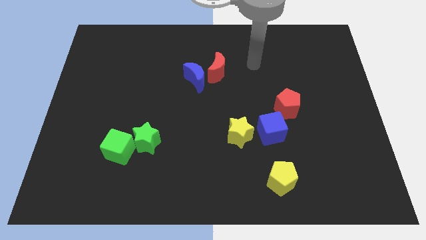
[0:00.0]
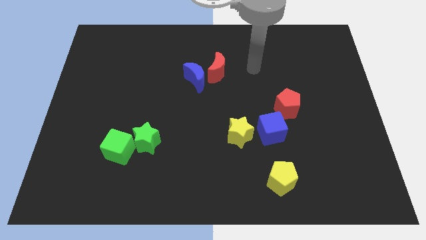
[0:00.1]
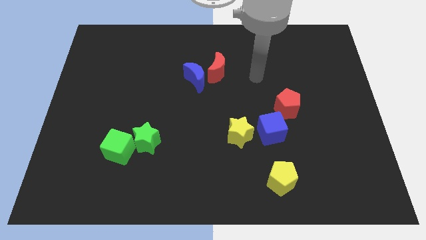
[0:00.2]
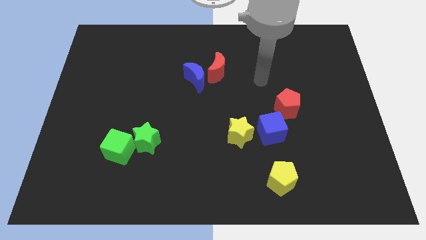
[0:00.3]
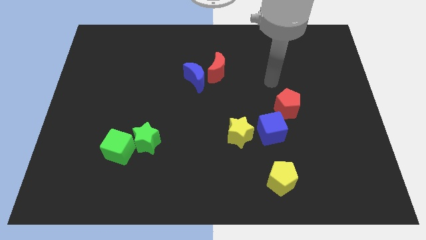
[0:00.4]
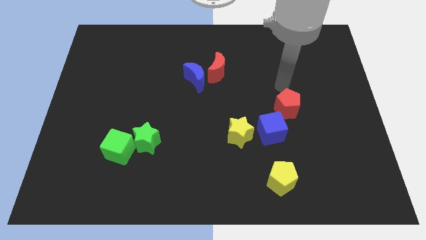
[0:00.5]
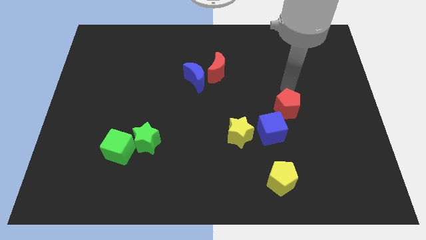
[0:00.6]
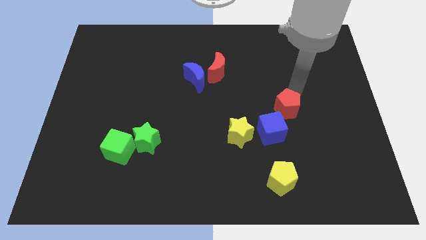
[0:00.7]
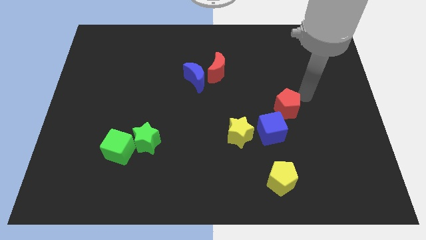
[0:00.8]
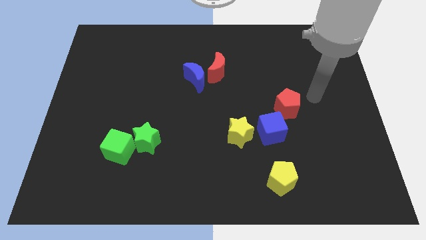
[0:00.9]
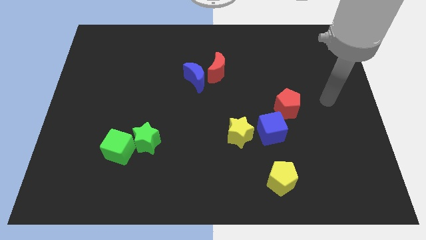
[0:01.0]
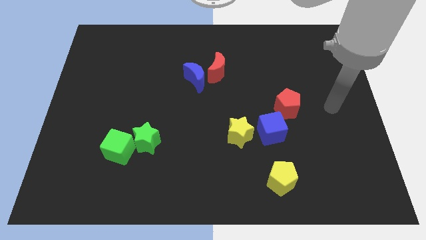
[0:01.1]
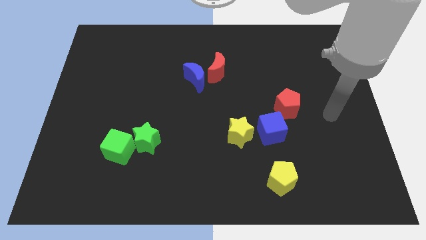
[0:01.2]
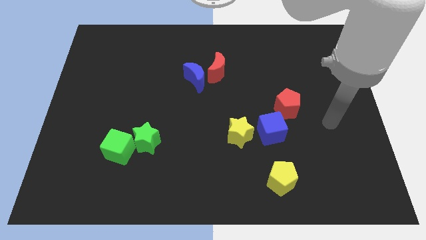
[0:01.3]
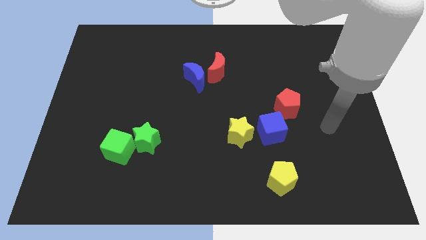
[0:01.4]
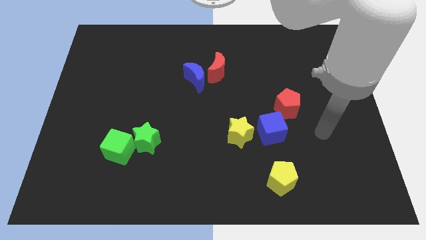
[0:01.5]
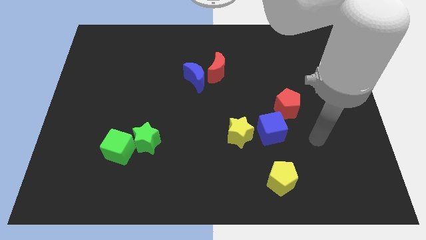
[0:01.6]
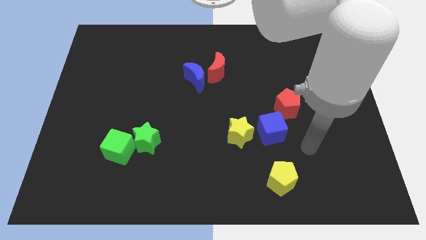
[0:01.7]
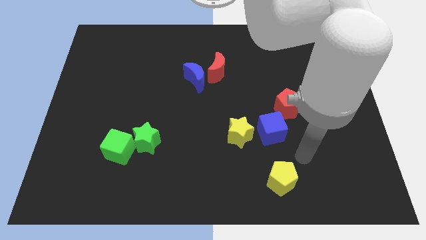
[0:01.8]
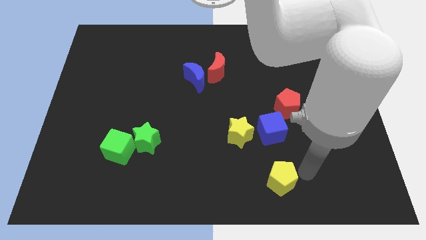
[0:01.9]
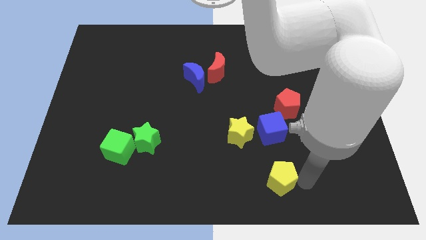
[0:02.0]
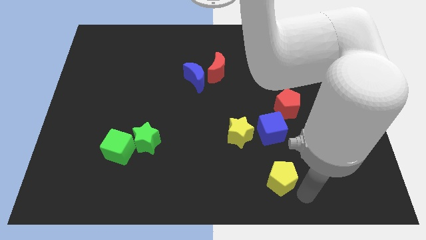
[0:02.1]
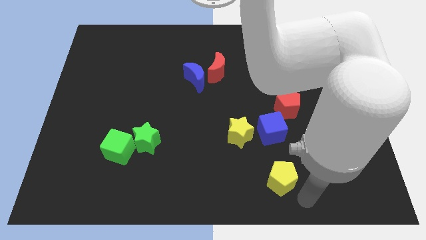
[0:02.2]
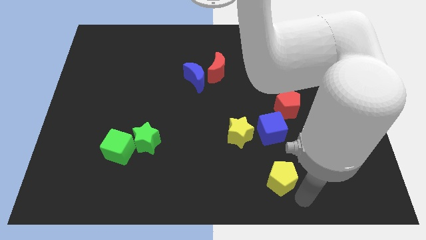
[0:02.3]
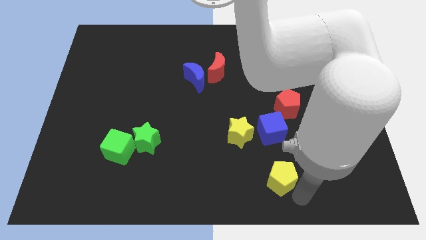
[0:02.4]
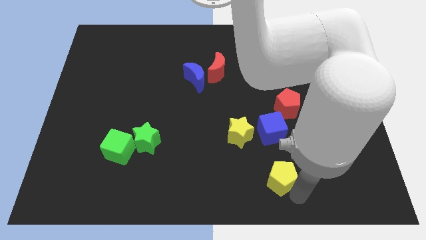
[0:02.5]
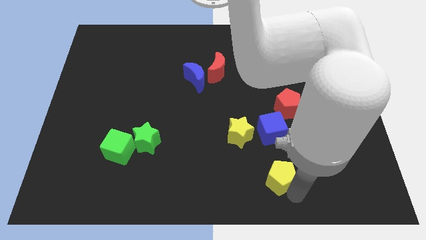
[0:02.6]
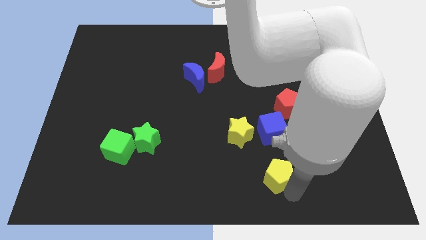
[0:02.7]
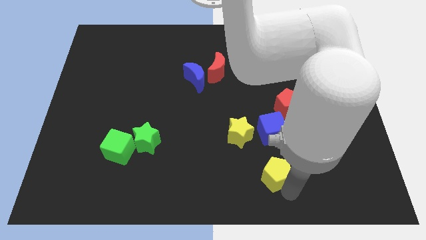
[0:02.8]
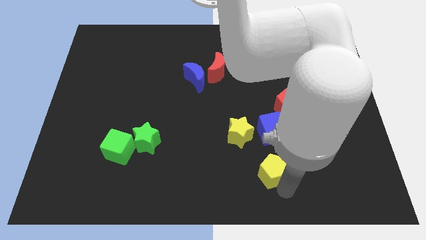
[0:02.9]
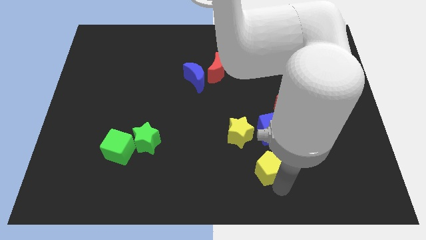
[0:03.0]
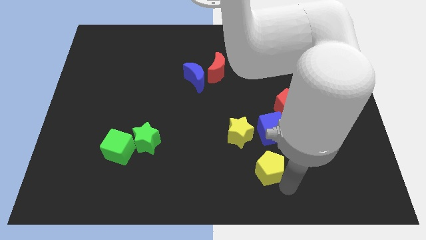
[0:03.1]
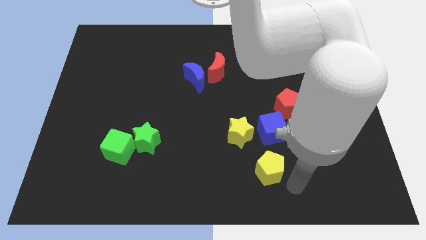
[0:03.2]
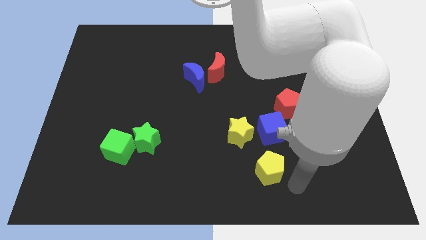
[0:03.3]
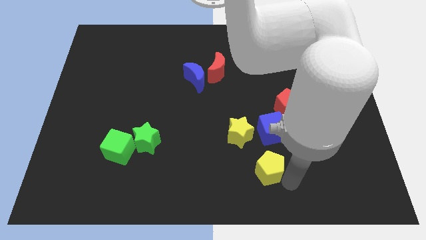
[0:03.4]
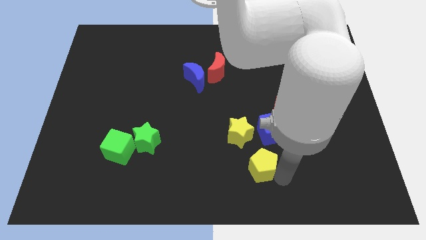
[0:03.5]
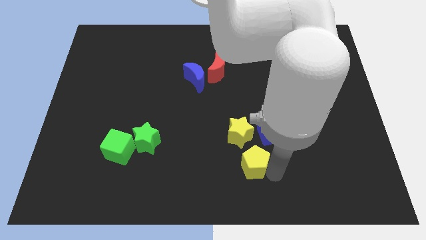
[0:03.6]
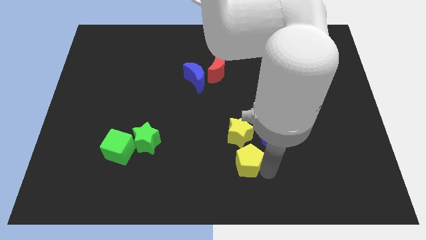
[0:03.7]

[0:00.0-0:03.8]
push the yellow pentagon up and then left somewhat

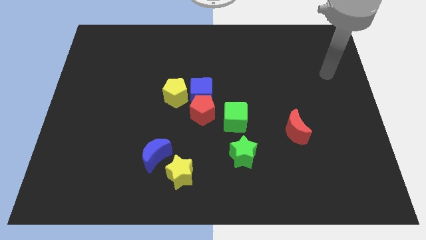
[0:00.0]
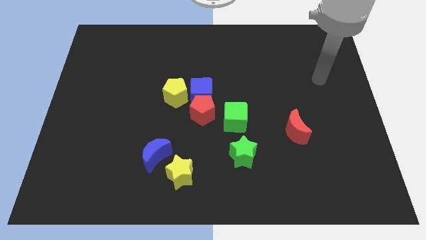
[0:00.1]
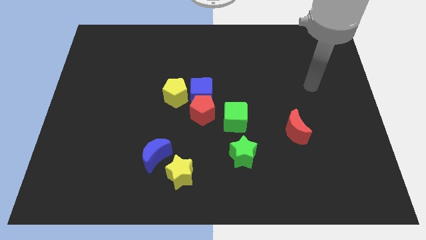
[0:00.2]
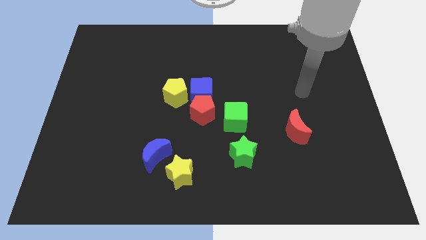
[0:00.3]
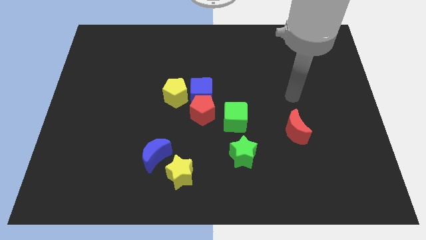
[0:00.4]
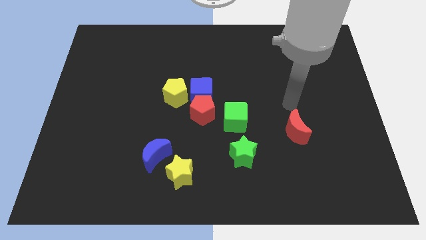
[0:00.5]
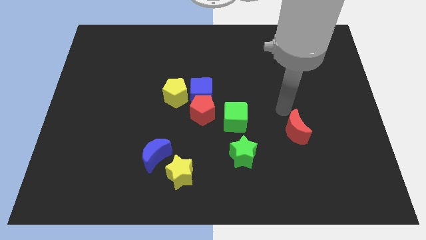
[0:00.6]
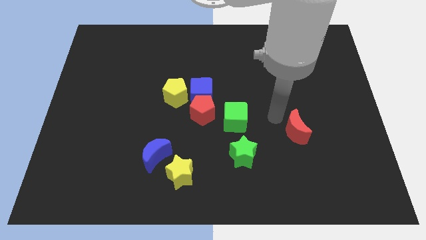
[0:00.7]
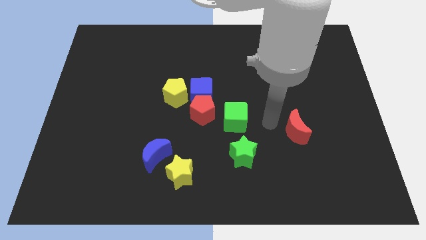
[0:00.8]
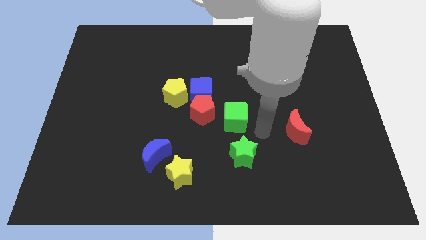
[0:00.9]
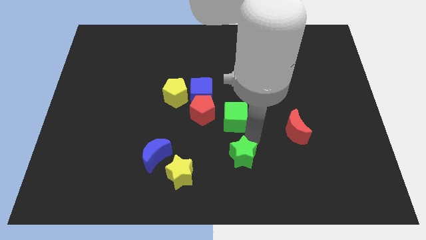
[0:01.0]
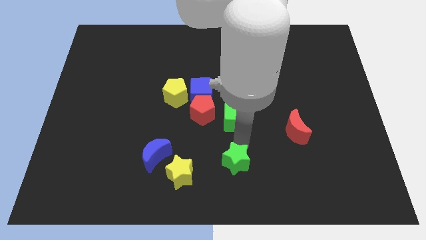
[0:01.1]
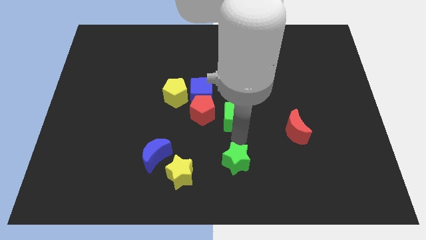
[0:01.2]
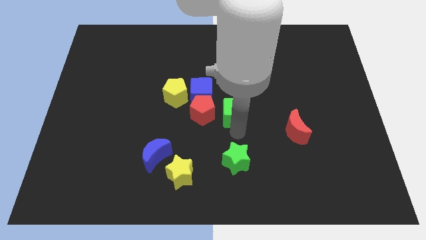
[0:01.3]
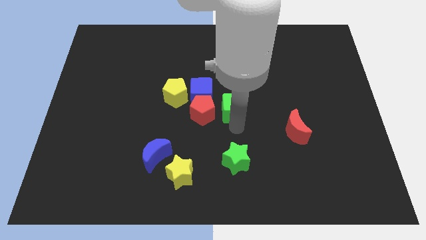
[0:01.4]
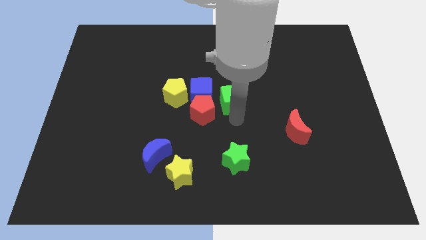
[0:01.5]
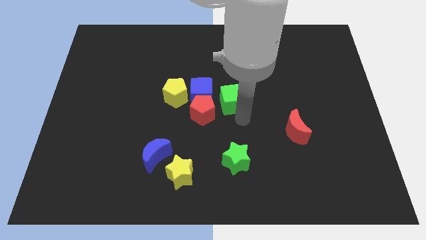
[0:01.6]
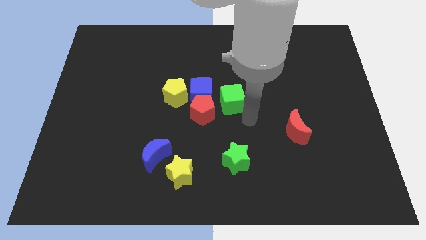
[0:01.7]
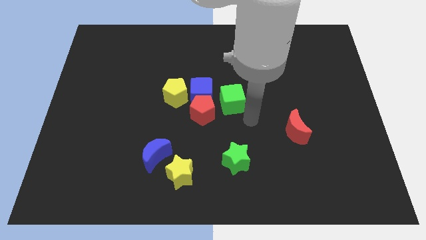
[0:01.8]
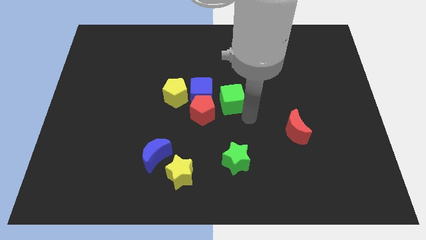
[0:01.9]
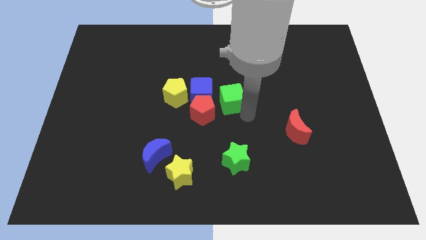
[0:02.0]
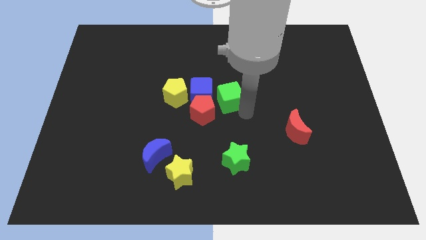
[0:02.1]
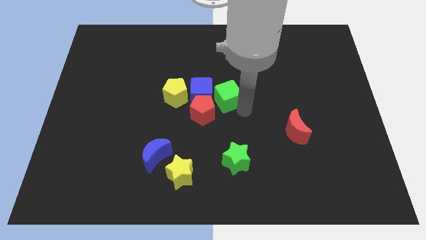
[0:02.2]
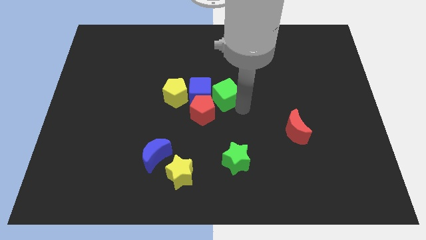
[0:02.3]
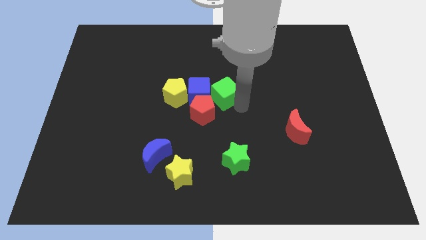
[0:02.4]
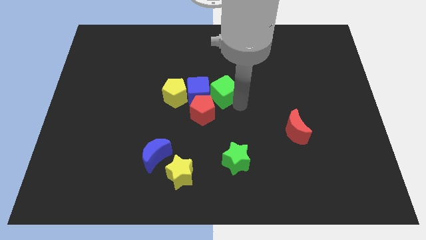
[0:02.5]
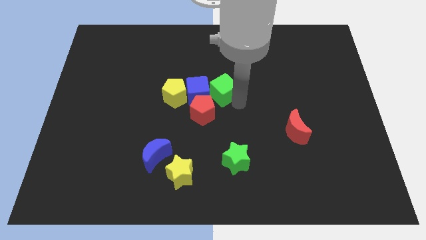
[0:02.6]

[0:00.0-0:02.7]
slightly push the green cube upwards and to the left

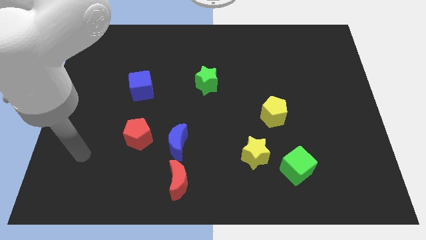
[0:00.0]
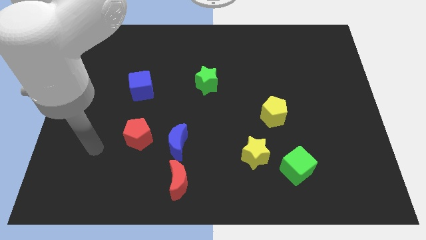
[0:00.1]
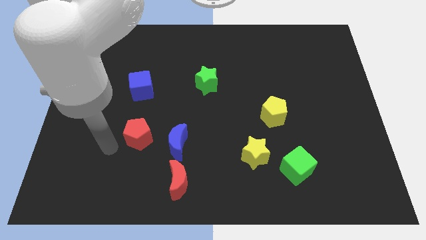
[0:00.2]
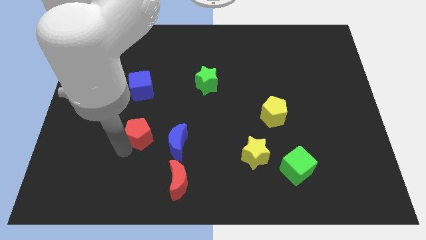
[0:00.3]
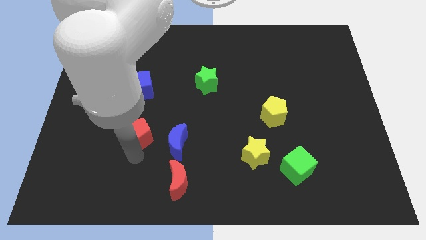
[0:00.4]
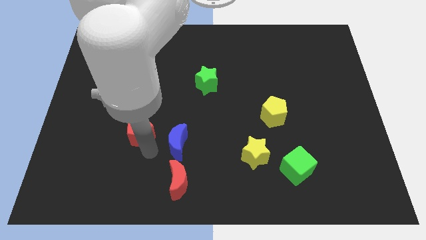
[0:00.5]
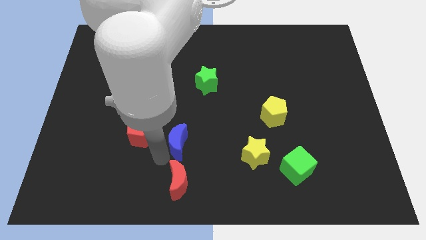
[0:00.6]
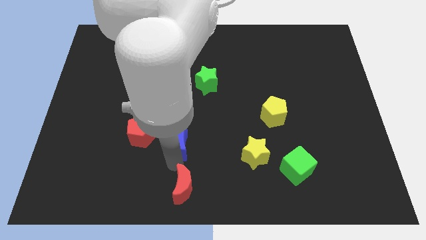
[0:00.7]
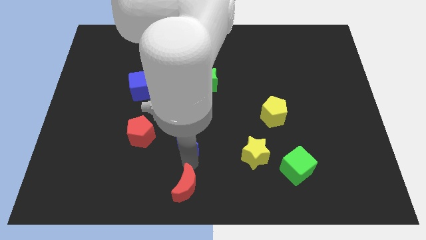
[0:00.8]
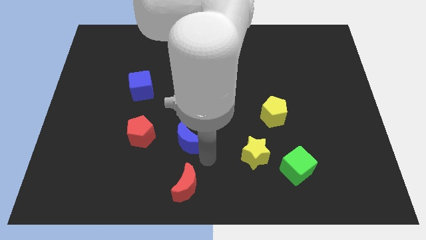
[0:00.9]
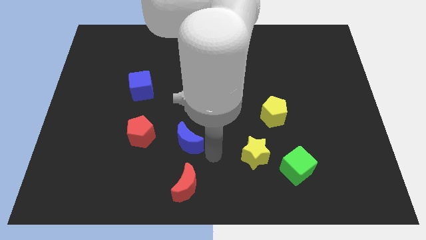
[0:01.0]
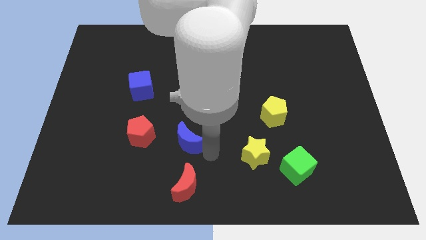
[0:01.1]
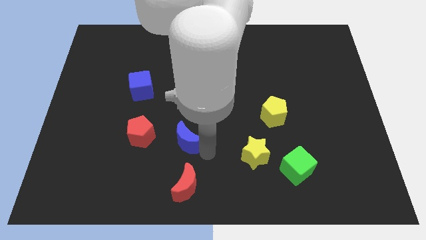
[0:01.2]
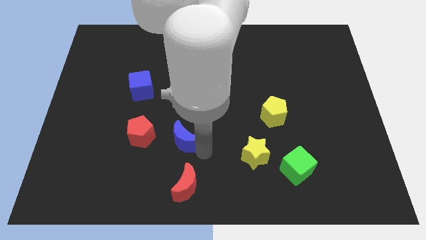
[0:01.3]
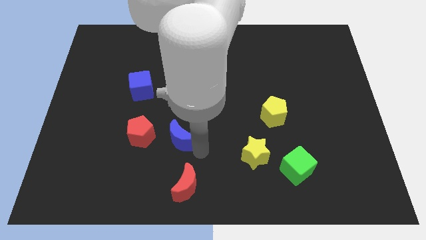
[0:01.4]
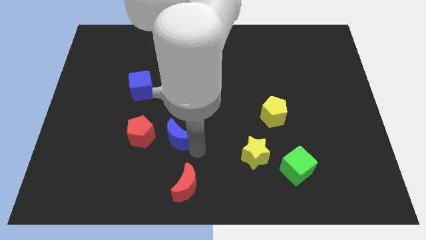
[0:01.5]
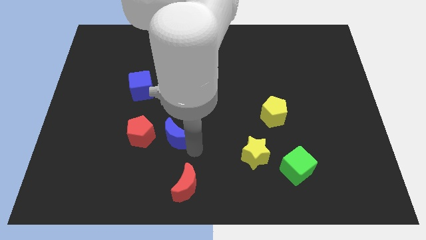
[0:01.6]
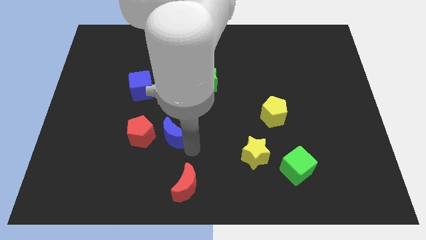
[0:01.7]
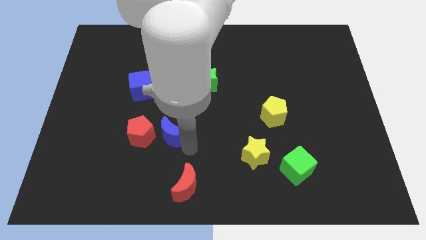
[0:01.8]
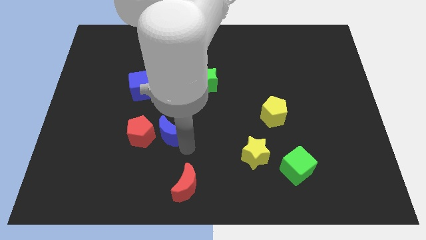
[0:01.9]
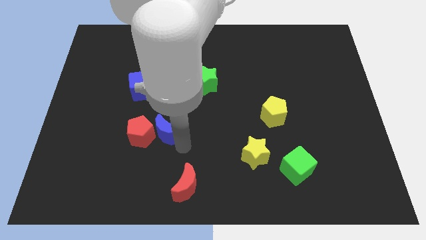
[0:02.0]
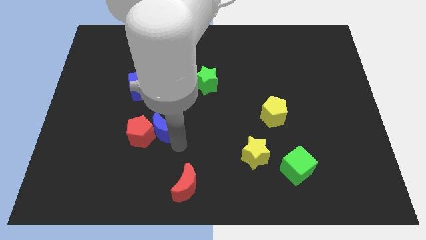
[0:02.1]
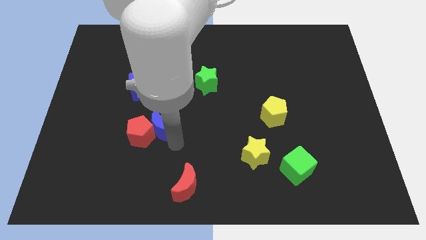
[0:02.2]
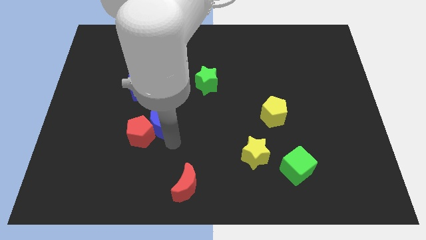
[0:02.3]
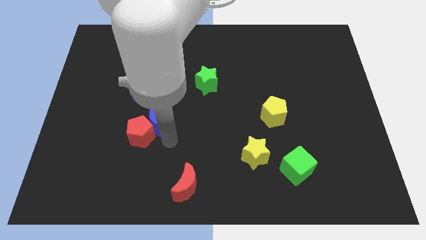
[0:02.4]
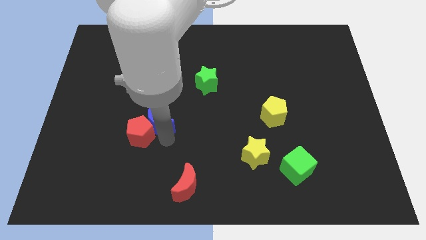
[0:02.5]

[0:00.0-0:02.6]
push the blue moon up and then left somewhat
